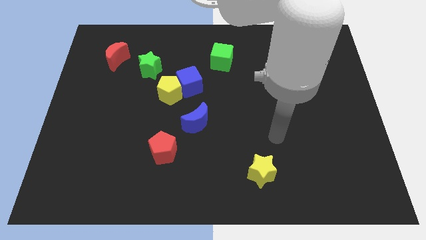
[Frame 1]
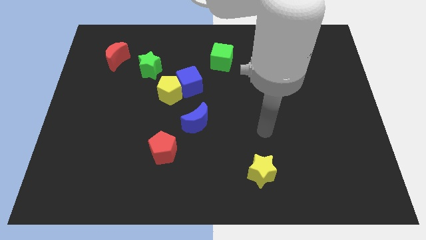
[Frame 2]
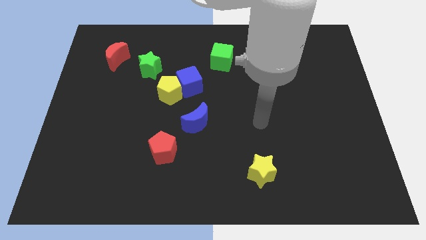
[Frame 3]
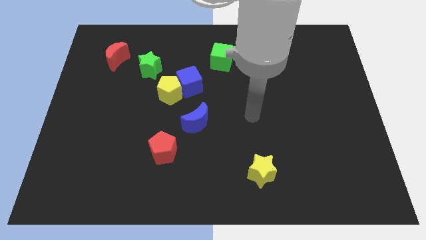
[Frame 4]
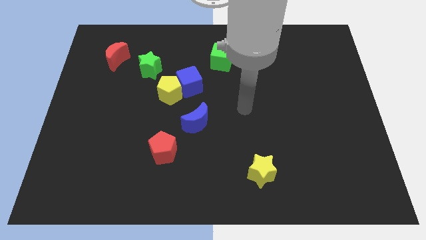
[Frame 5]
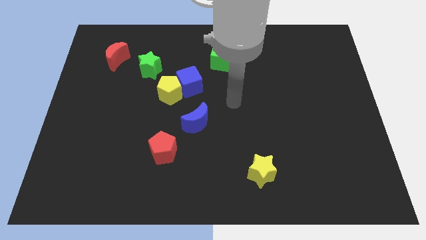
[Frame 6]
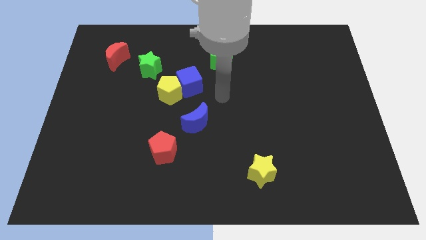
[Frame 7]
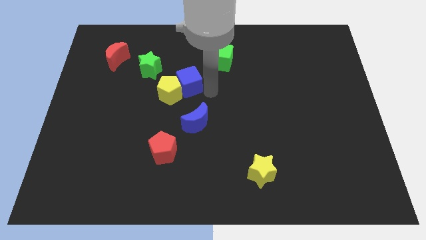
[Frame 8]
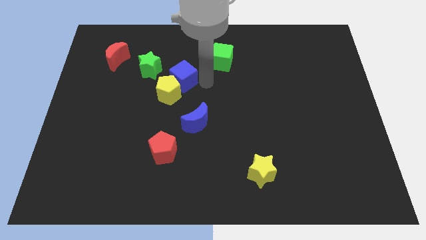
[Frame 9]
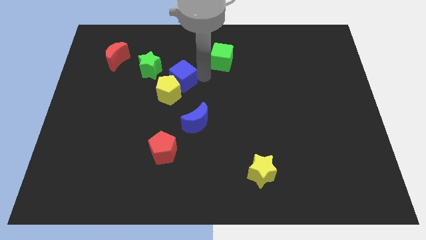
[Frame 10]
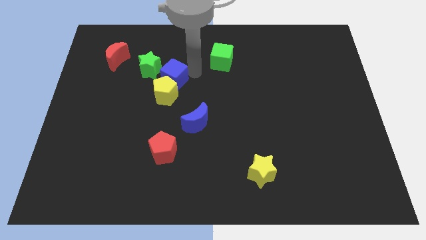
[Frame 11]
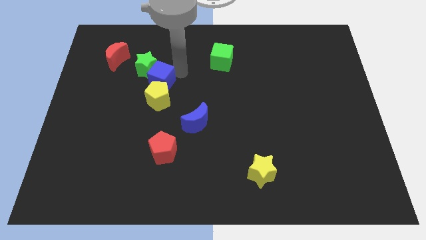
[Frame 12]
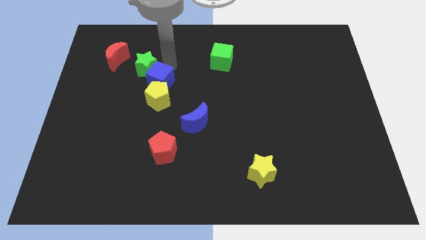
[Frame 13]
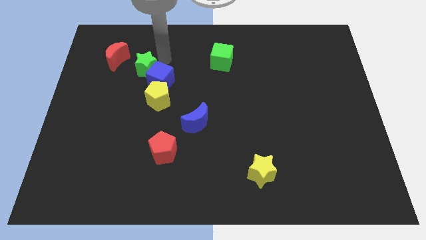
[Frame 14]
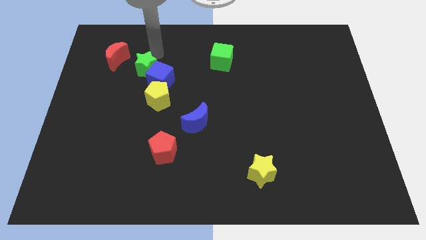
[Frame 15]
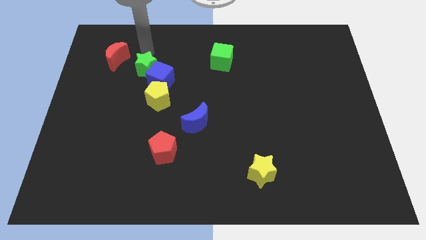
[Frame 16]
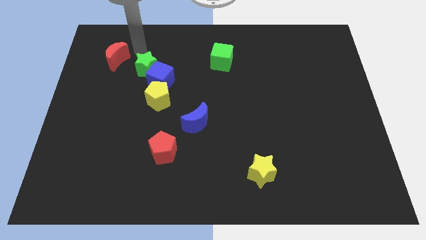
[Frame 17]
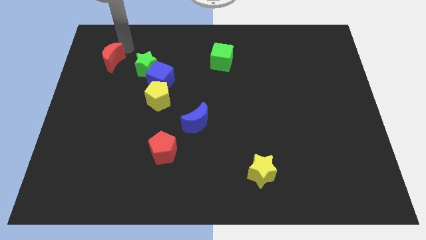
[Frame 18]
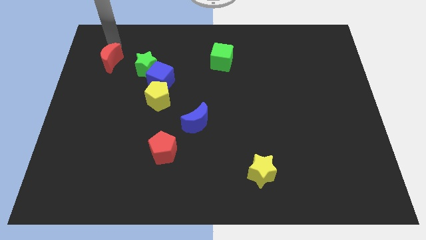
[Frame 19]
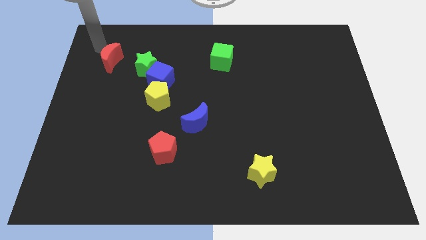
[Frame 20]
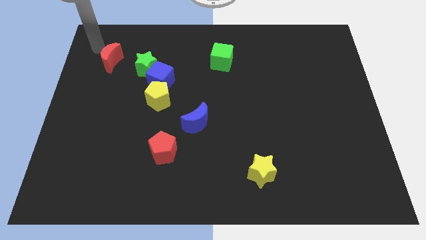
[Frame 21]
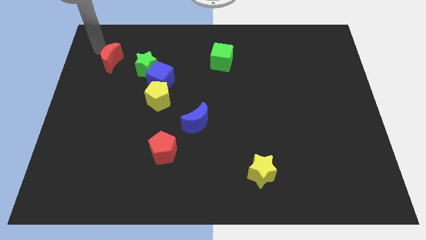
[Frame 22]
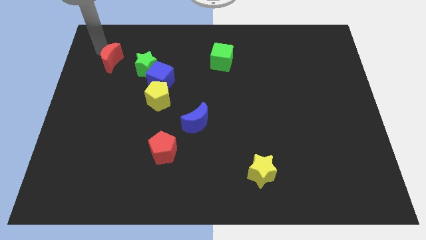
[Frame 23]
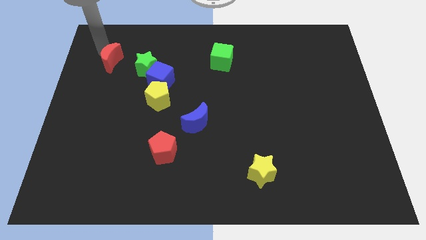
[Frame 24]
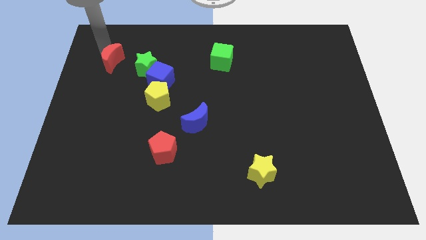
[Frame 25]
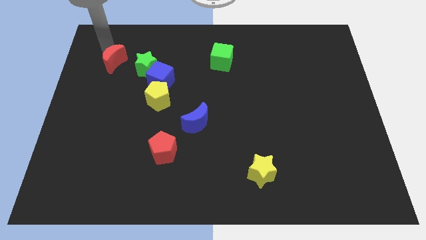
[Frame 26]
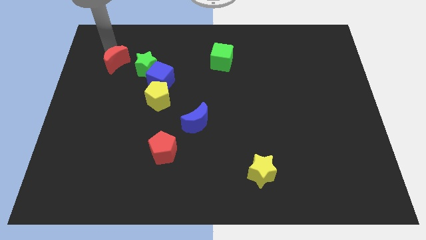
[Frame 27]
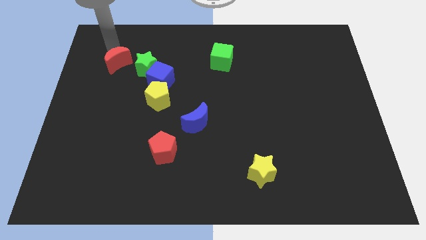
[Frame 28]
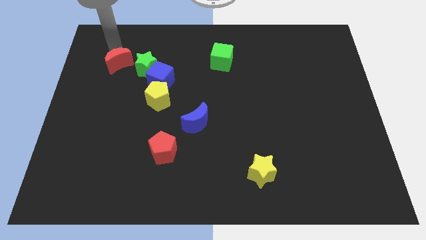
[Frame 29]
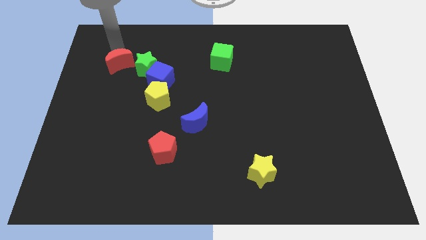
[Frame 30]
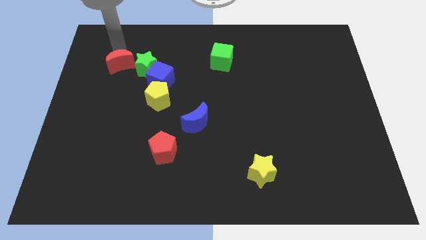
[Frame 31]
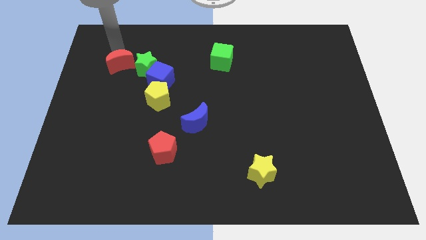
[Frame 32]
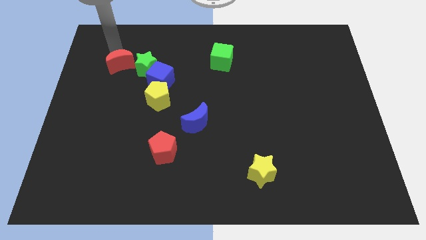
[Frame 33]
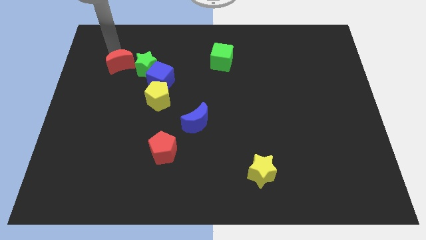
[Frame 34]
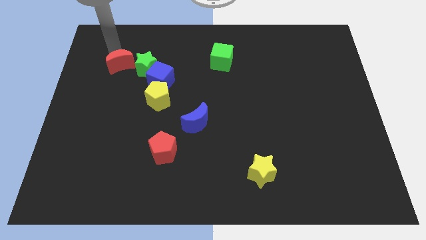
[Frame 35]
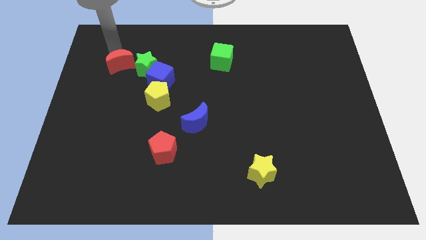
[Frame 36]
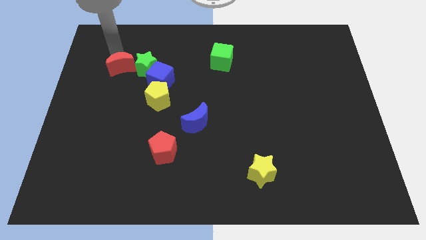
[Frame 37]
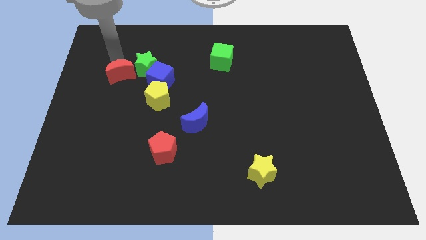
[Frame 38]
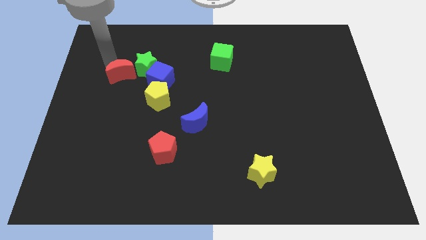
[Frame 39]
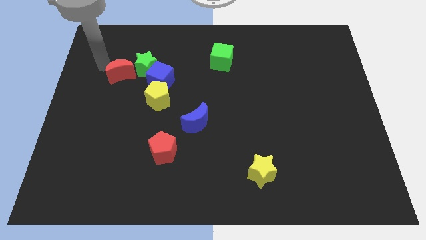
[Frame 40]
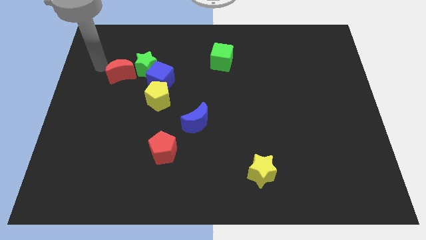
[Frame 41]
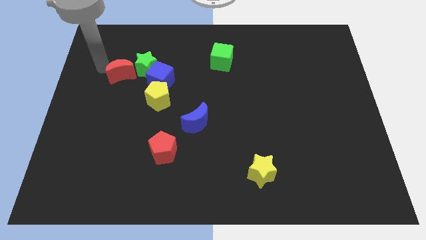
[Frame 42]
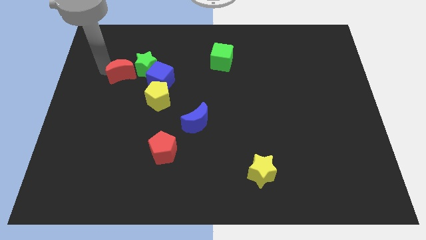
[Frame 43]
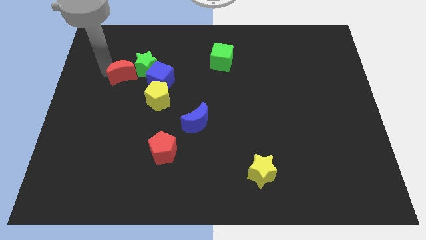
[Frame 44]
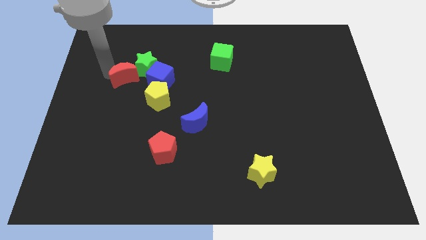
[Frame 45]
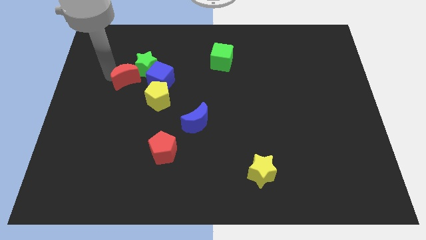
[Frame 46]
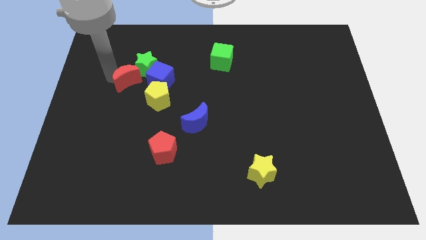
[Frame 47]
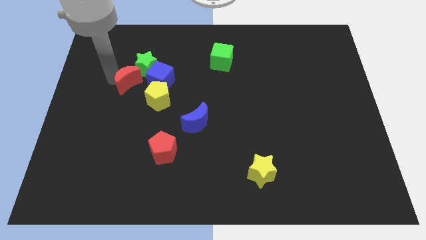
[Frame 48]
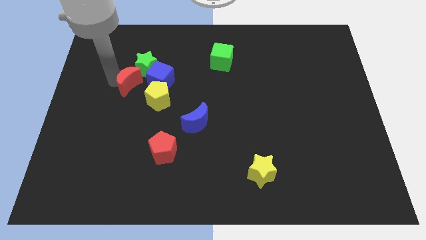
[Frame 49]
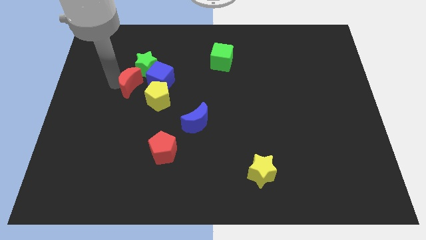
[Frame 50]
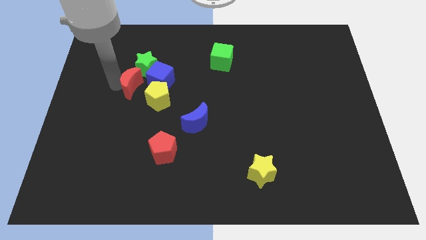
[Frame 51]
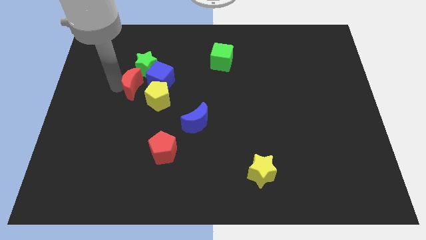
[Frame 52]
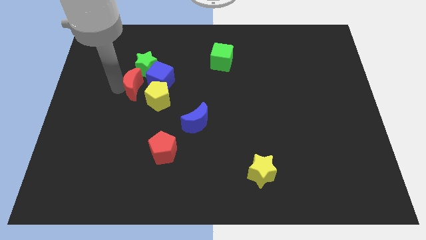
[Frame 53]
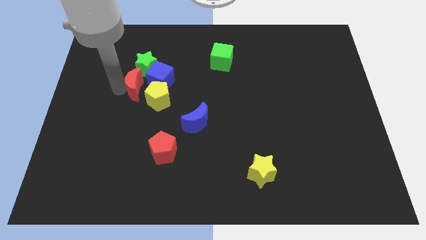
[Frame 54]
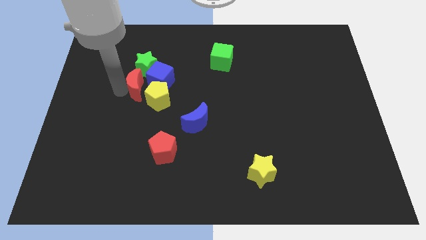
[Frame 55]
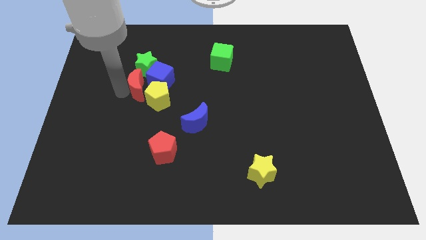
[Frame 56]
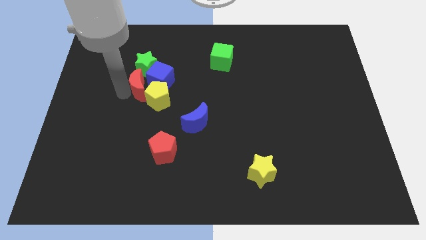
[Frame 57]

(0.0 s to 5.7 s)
put the red moon towards the yellow pentagon

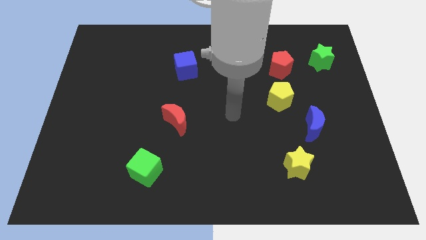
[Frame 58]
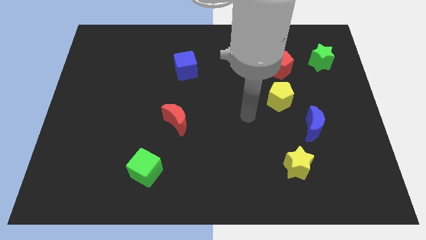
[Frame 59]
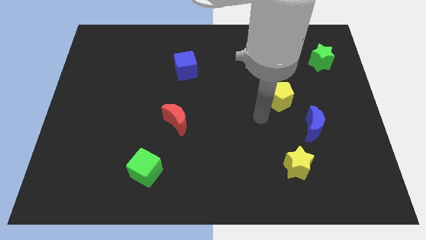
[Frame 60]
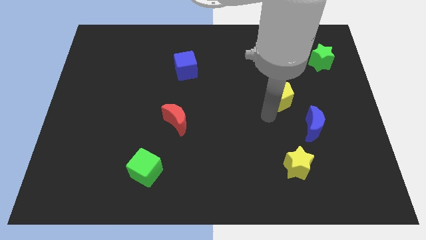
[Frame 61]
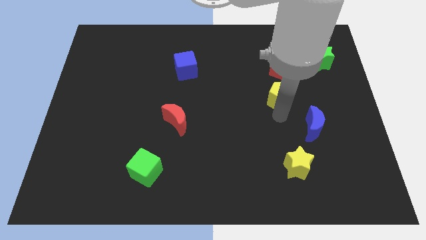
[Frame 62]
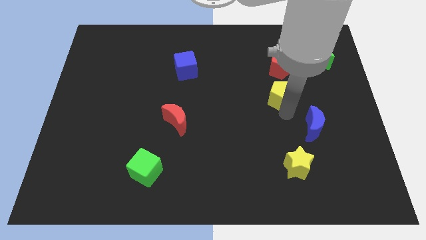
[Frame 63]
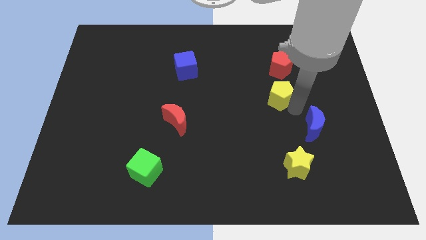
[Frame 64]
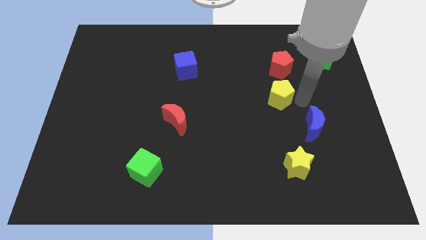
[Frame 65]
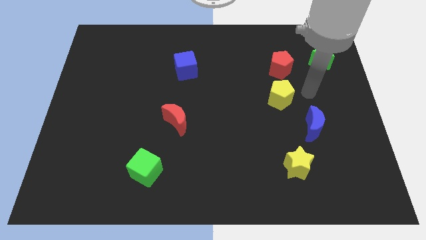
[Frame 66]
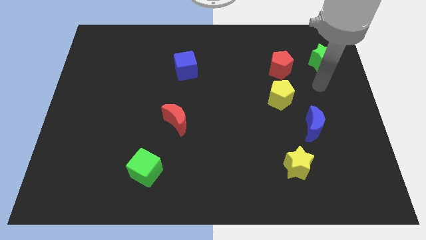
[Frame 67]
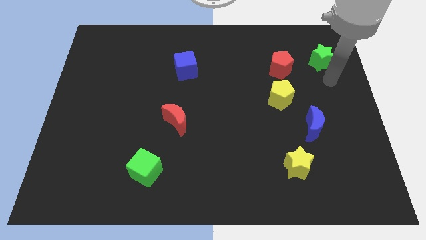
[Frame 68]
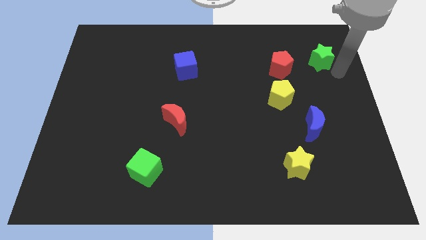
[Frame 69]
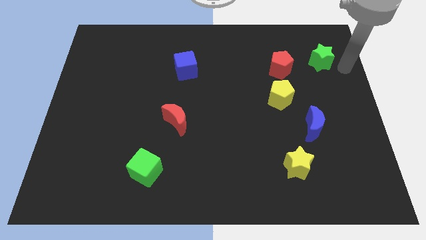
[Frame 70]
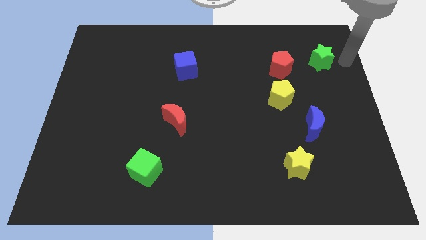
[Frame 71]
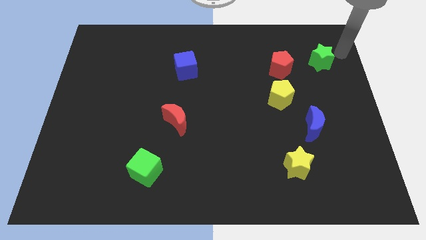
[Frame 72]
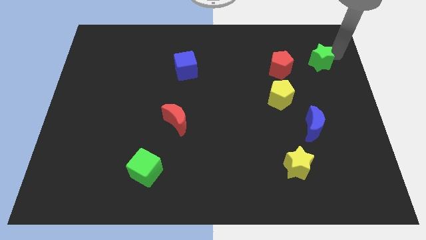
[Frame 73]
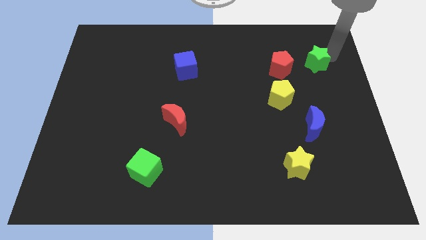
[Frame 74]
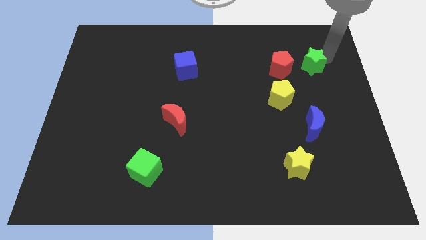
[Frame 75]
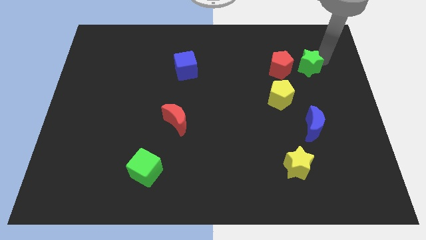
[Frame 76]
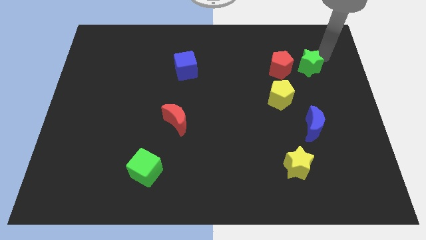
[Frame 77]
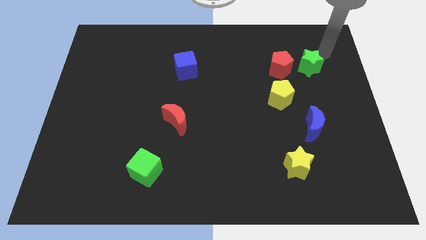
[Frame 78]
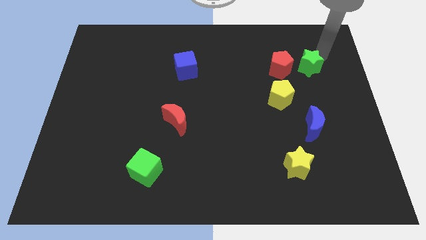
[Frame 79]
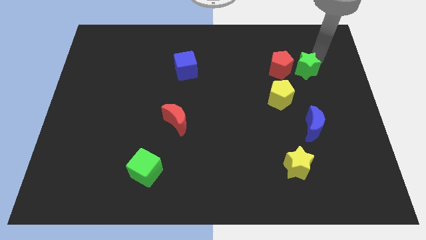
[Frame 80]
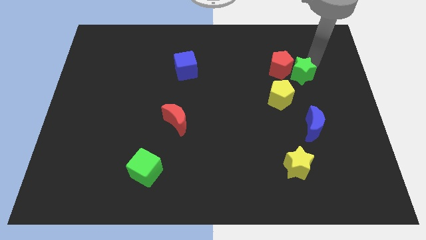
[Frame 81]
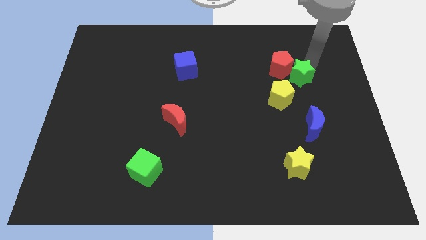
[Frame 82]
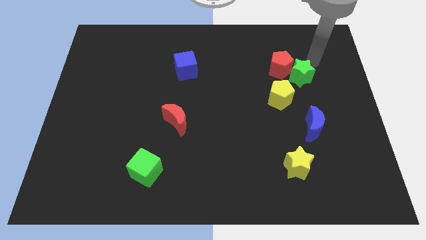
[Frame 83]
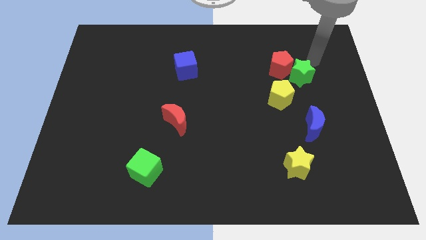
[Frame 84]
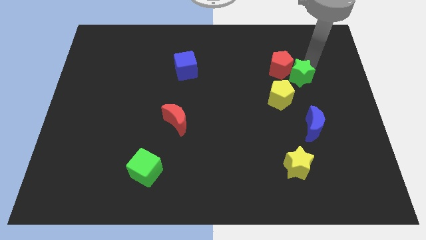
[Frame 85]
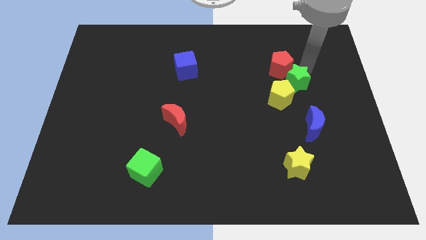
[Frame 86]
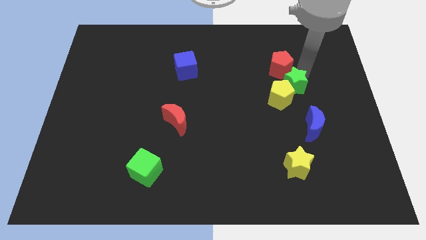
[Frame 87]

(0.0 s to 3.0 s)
put the green star next to the yellow pentagon
